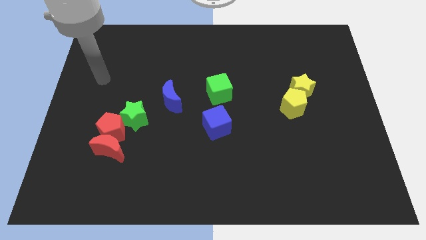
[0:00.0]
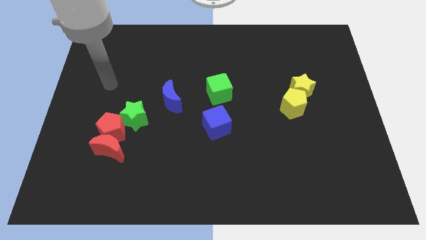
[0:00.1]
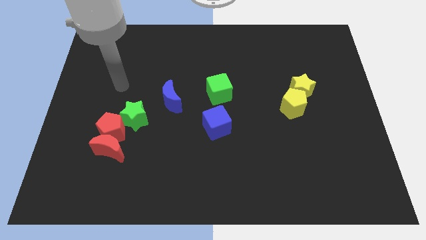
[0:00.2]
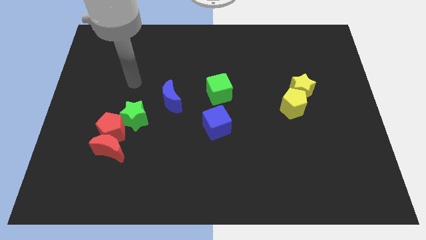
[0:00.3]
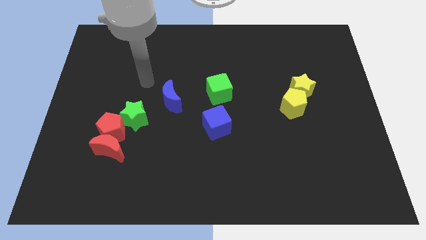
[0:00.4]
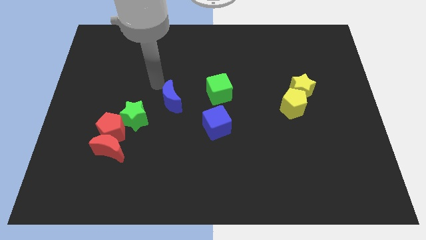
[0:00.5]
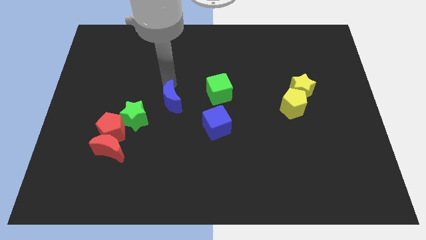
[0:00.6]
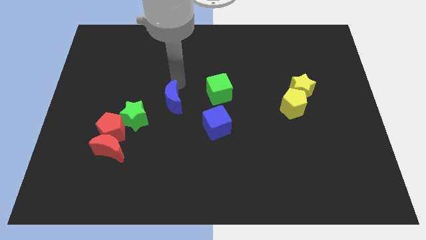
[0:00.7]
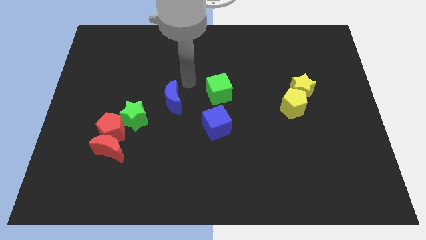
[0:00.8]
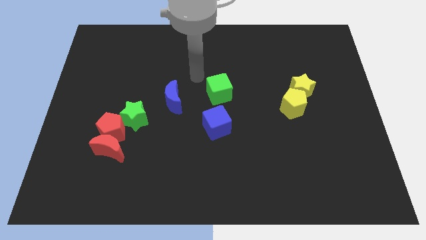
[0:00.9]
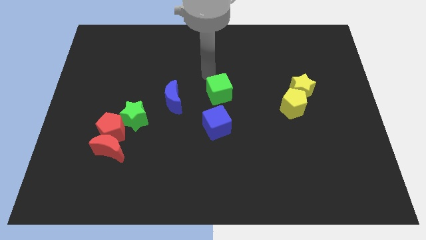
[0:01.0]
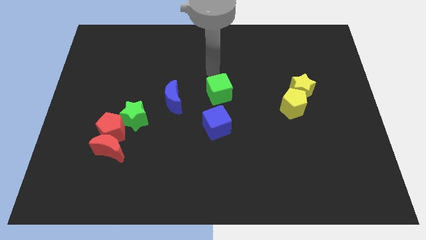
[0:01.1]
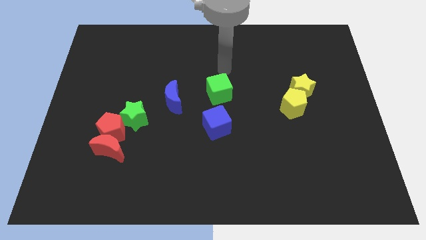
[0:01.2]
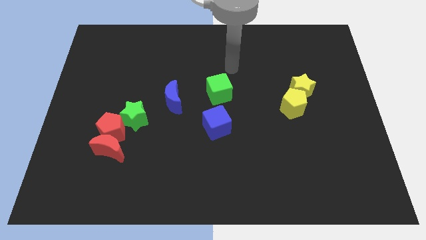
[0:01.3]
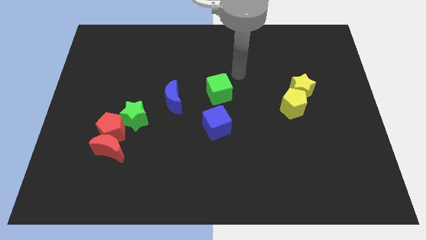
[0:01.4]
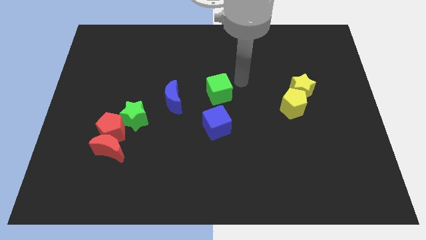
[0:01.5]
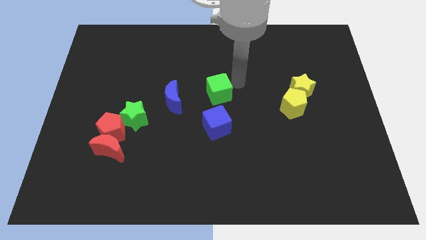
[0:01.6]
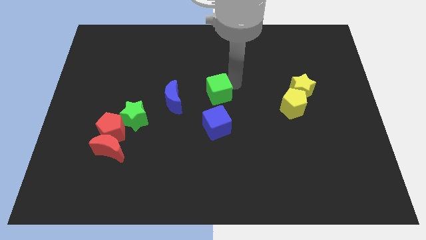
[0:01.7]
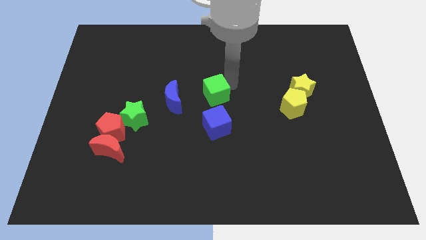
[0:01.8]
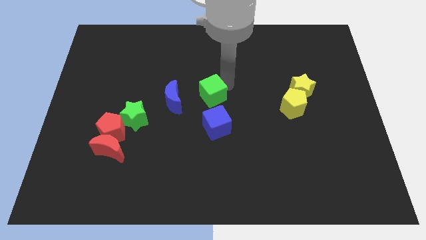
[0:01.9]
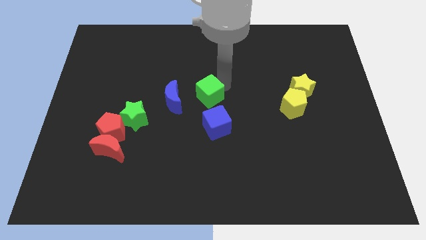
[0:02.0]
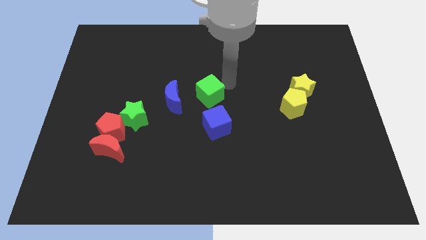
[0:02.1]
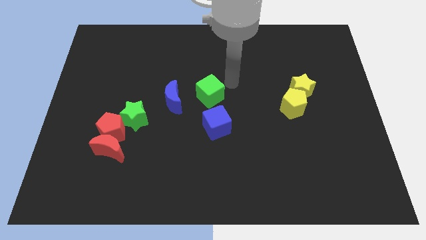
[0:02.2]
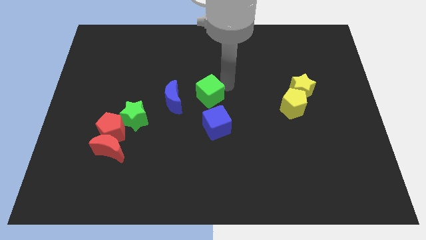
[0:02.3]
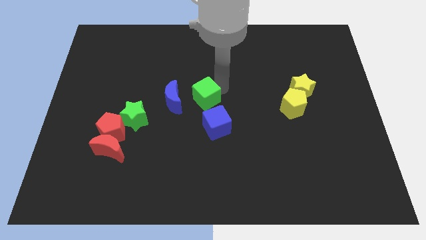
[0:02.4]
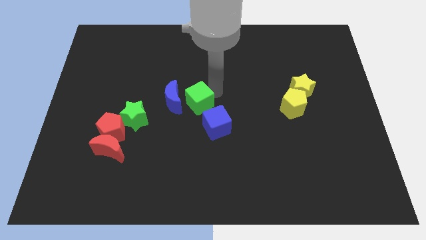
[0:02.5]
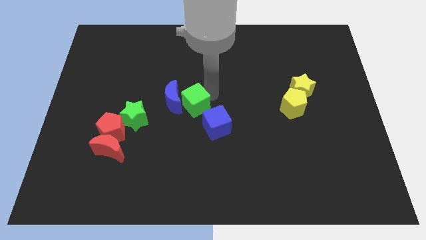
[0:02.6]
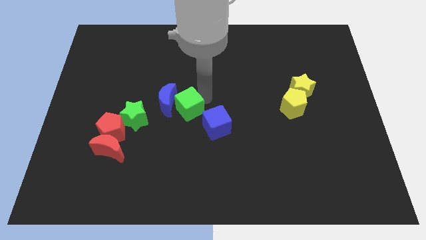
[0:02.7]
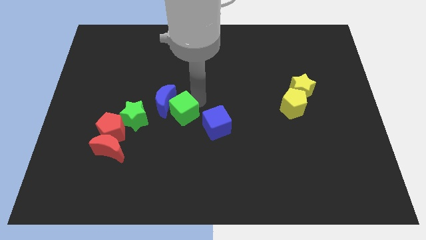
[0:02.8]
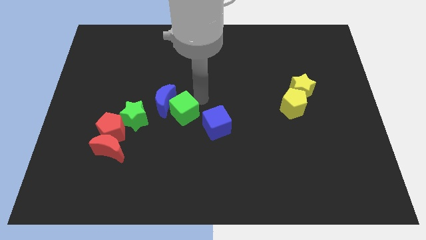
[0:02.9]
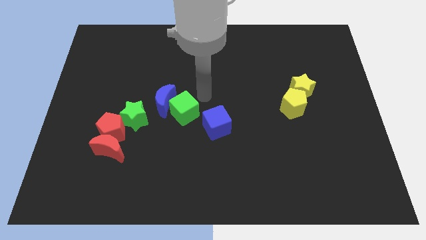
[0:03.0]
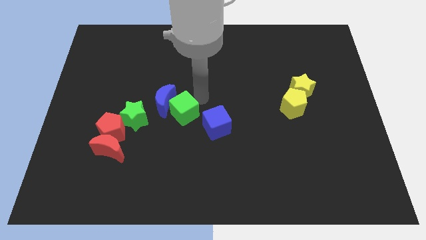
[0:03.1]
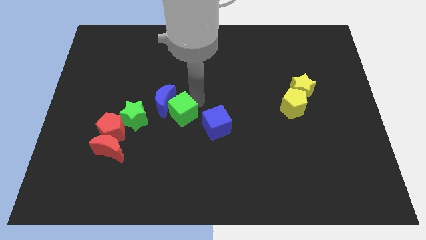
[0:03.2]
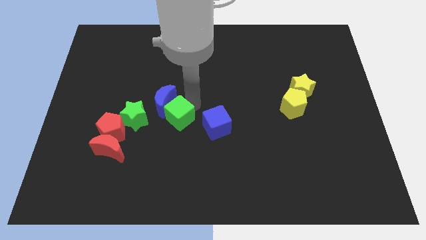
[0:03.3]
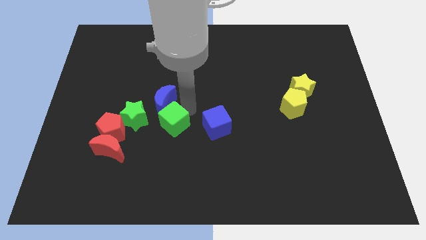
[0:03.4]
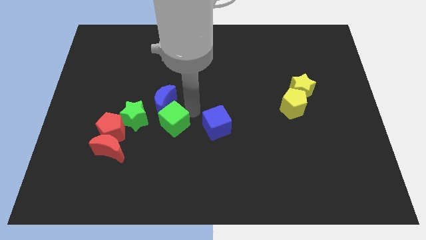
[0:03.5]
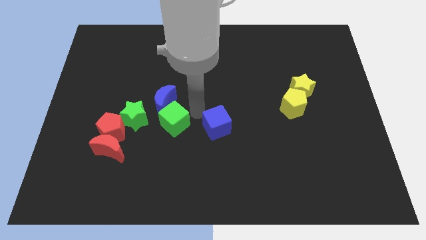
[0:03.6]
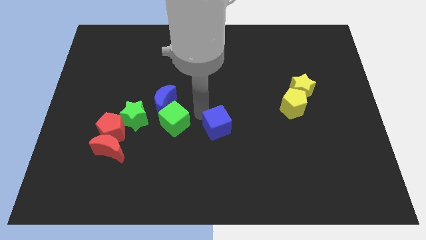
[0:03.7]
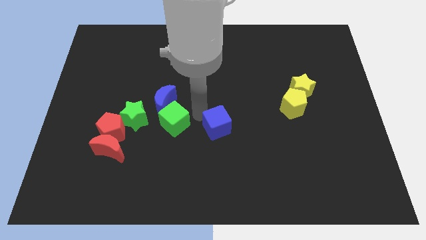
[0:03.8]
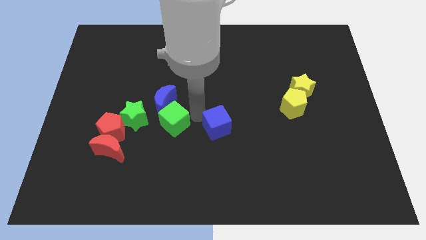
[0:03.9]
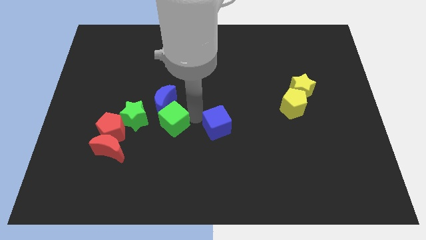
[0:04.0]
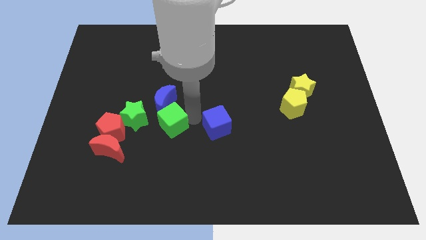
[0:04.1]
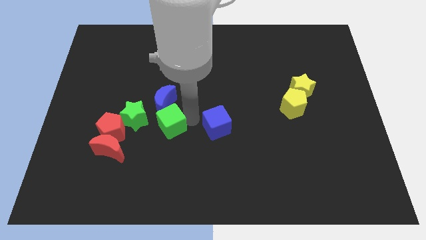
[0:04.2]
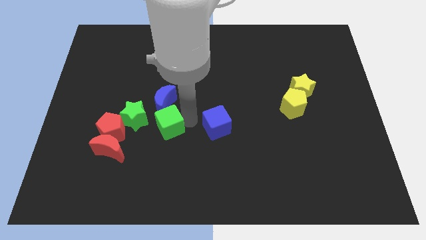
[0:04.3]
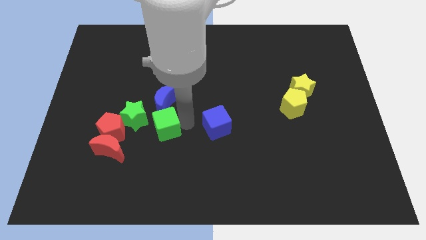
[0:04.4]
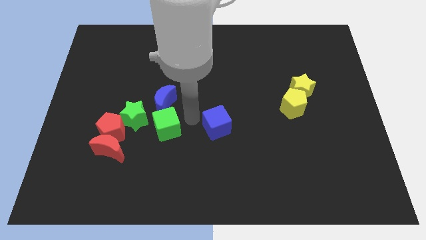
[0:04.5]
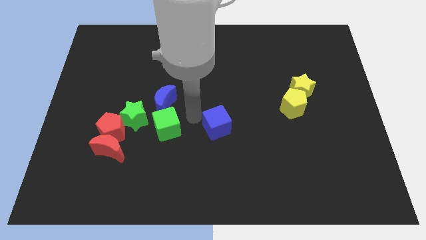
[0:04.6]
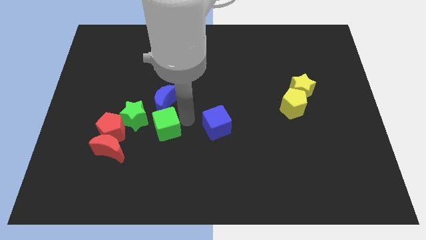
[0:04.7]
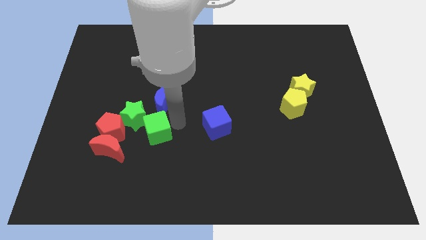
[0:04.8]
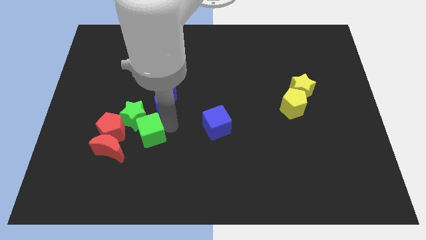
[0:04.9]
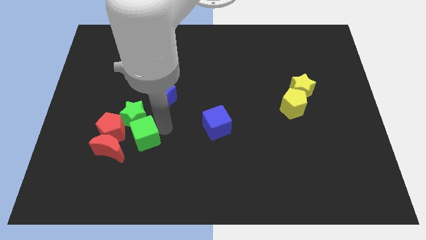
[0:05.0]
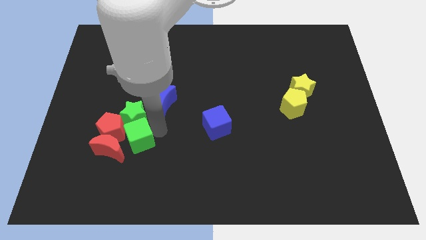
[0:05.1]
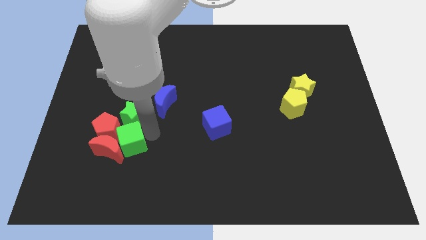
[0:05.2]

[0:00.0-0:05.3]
push the green cube to the red moon

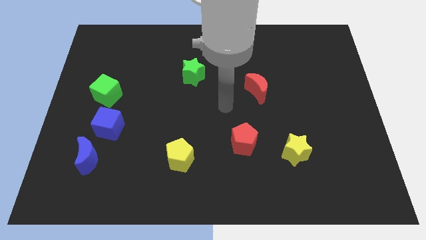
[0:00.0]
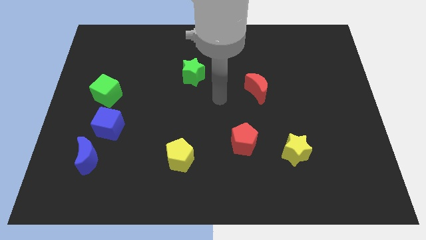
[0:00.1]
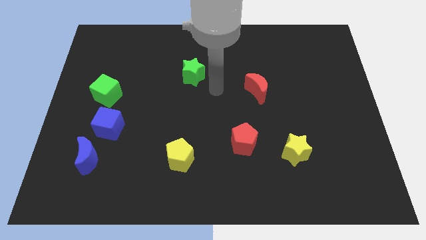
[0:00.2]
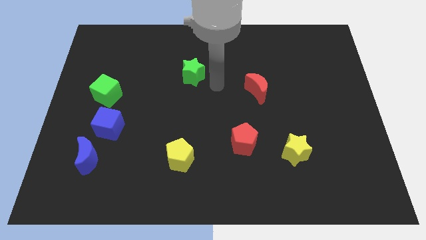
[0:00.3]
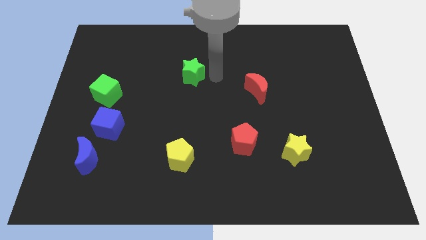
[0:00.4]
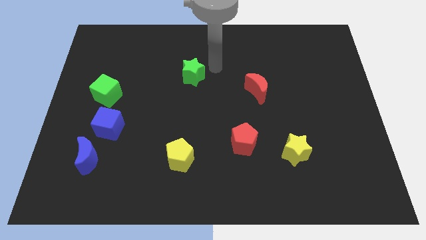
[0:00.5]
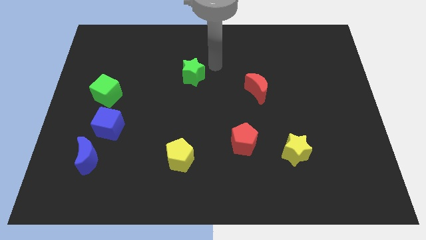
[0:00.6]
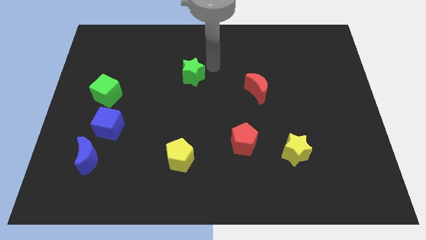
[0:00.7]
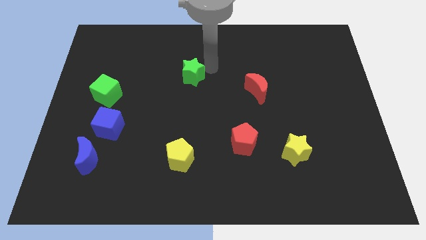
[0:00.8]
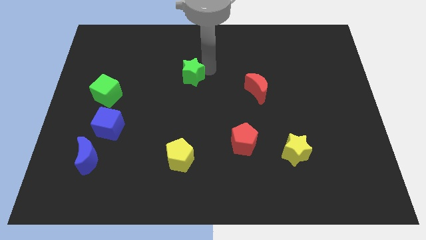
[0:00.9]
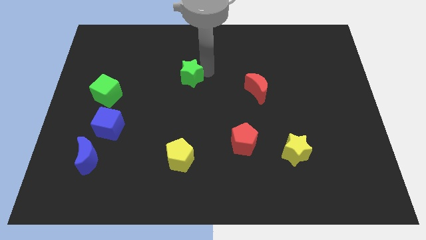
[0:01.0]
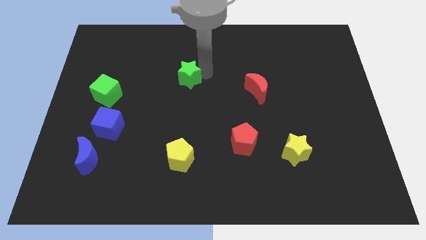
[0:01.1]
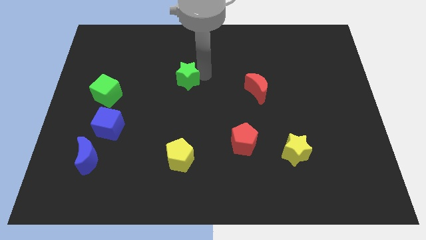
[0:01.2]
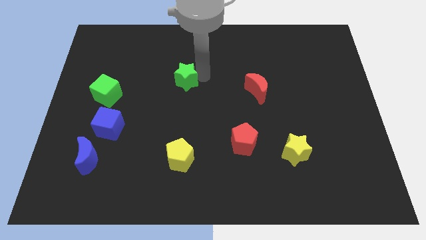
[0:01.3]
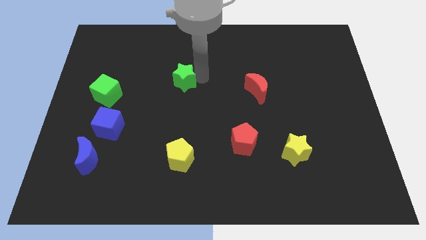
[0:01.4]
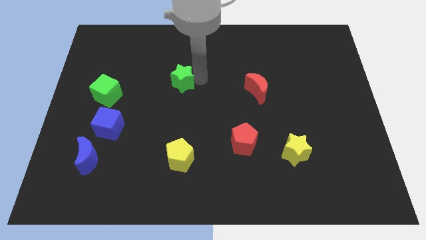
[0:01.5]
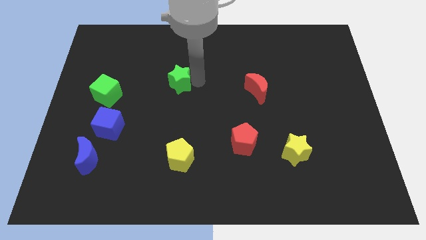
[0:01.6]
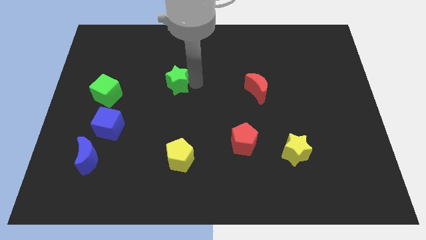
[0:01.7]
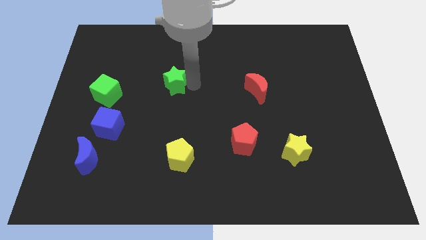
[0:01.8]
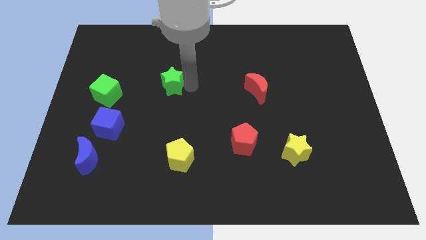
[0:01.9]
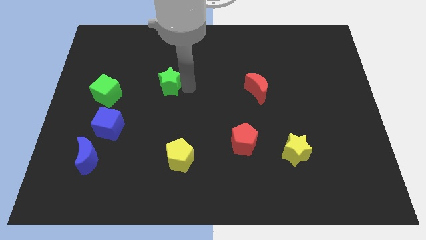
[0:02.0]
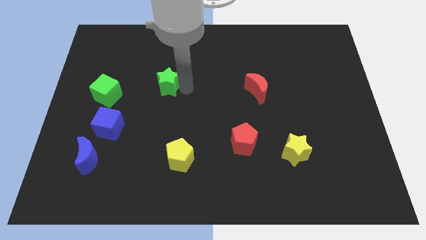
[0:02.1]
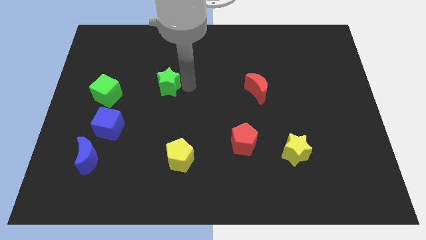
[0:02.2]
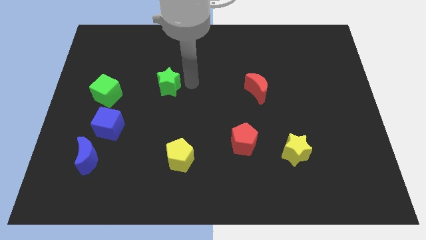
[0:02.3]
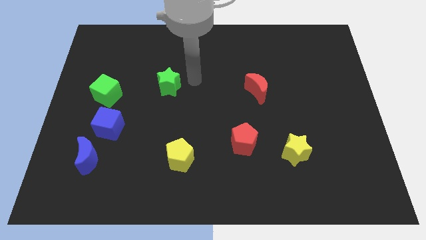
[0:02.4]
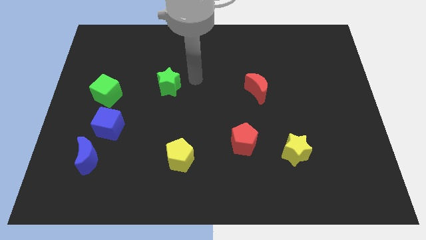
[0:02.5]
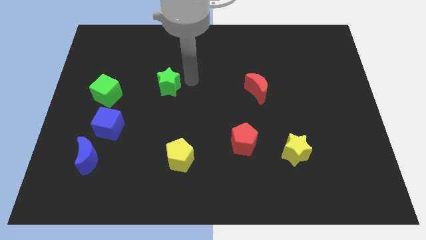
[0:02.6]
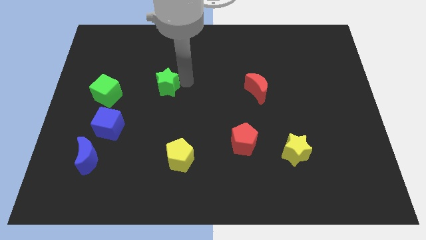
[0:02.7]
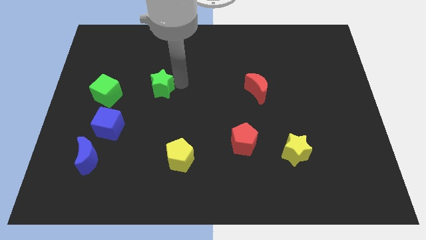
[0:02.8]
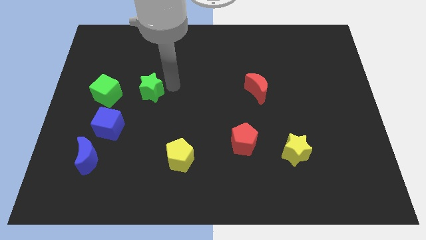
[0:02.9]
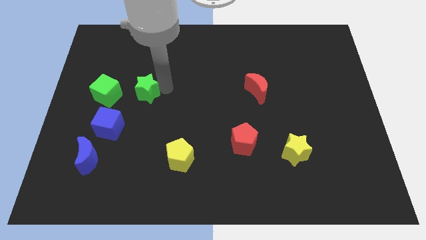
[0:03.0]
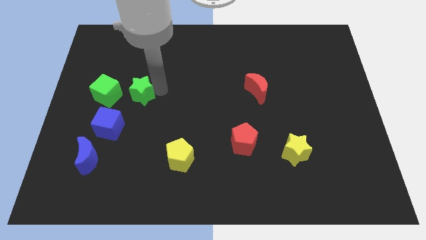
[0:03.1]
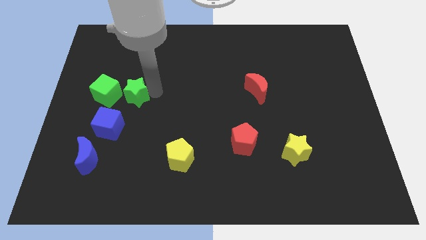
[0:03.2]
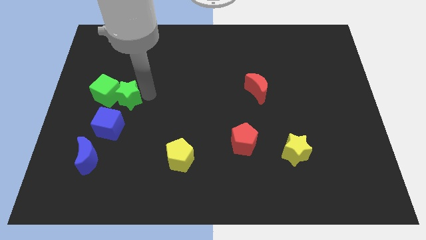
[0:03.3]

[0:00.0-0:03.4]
push the green star next to the green cube
